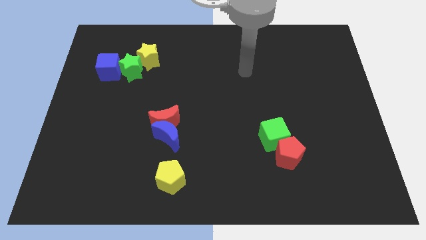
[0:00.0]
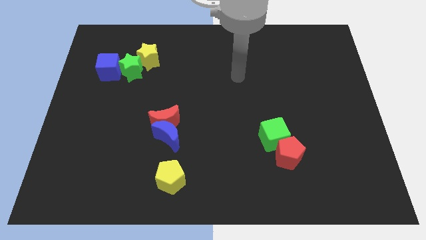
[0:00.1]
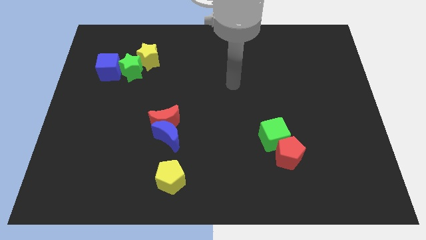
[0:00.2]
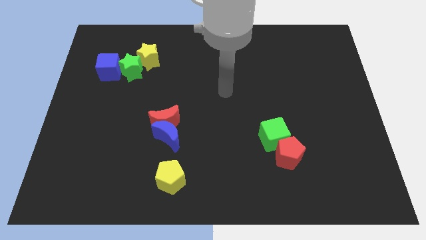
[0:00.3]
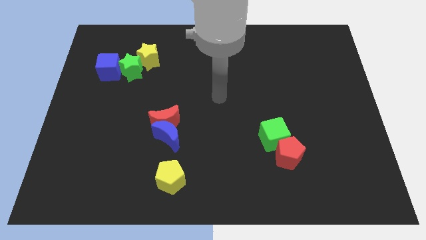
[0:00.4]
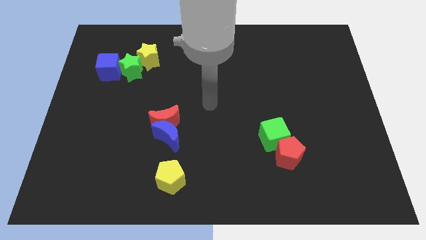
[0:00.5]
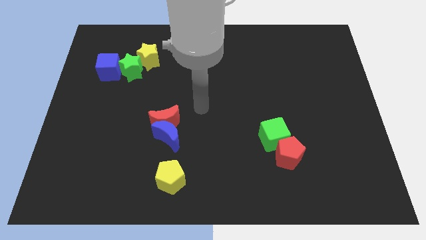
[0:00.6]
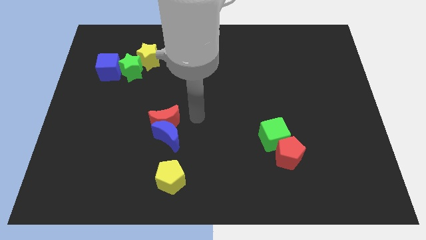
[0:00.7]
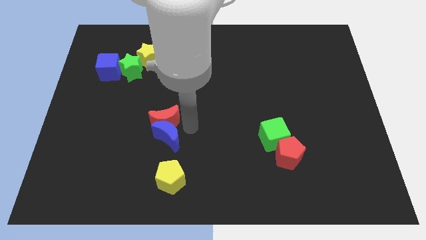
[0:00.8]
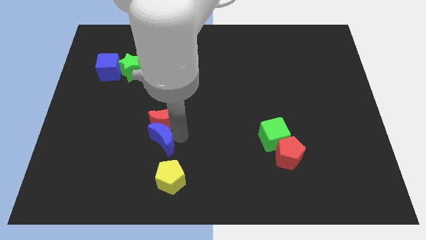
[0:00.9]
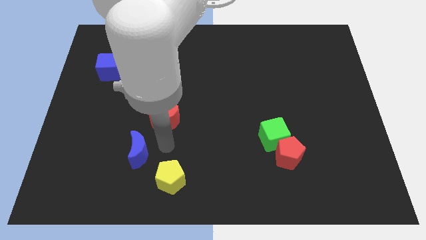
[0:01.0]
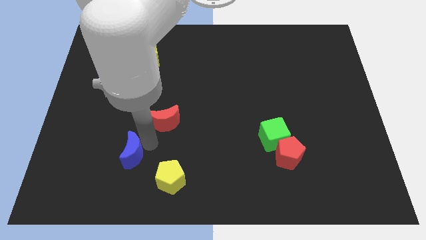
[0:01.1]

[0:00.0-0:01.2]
separate the red moon from the blue moon

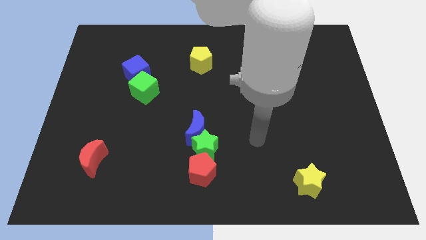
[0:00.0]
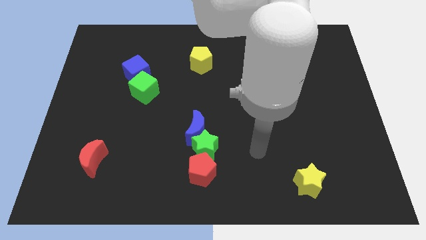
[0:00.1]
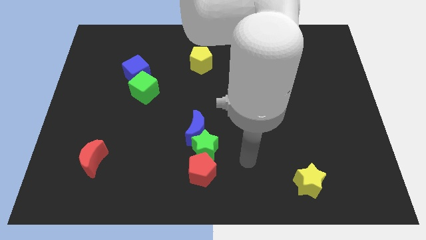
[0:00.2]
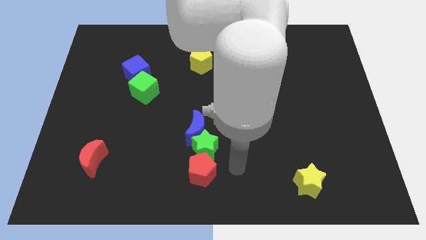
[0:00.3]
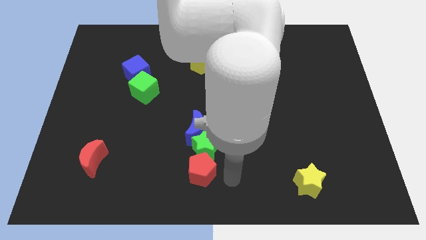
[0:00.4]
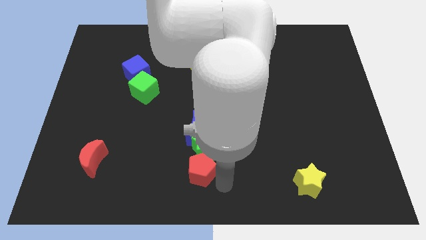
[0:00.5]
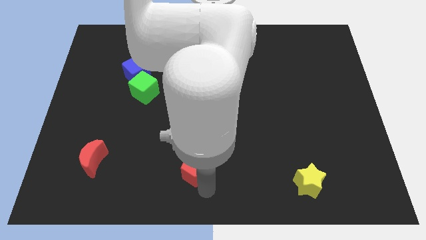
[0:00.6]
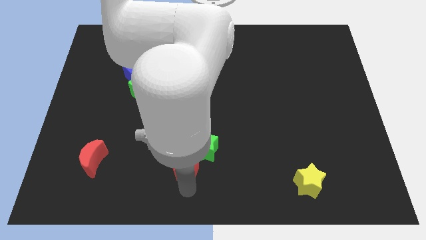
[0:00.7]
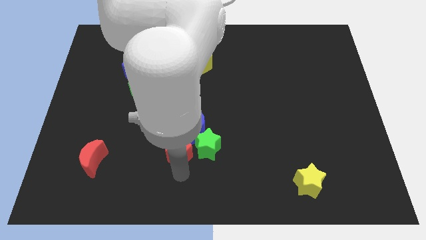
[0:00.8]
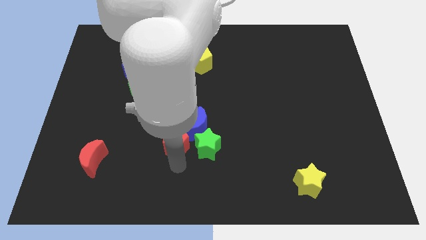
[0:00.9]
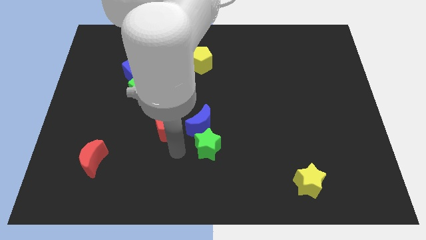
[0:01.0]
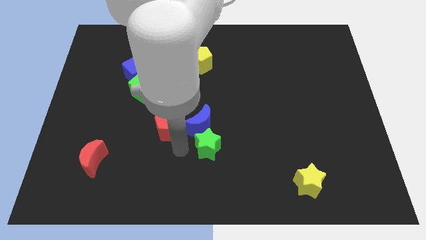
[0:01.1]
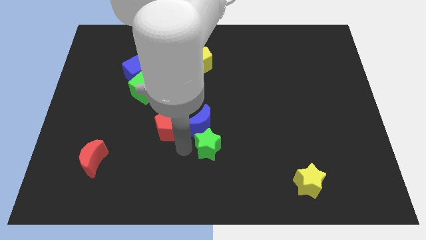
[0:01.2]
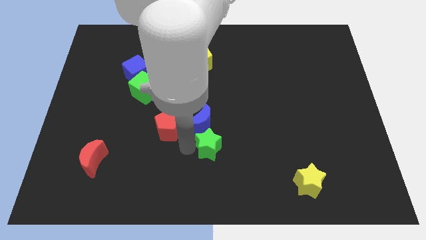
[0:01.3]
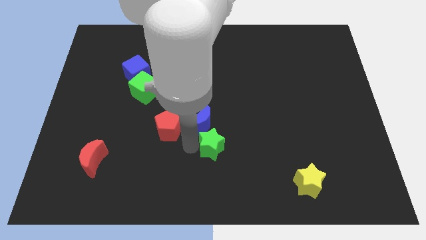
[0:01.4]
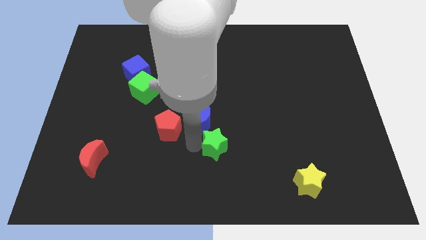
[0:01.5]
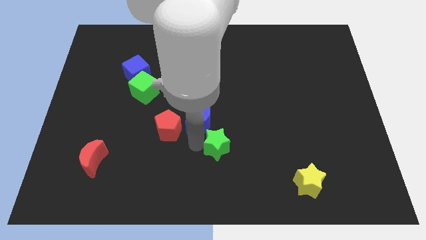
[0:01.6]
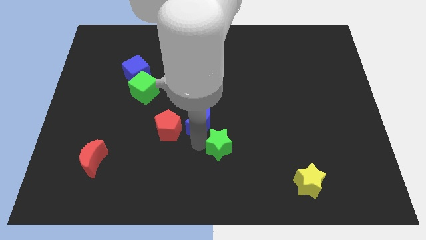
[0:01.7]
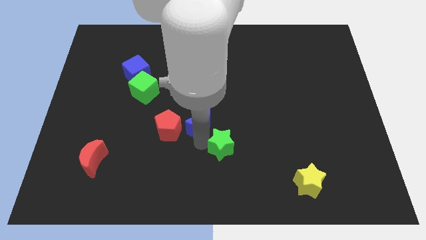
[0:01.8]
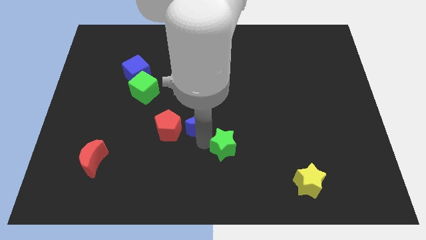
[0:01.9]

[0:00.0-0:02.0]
pull the green star apart from the blue moon and red pentagon

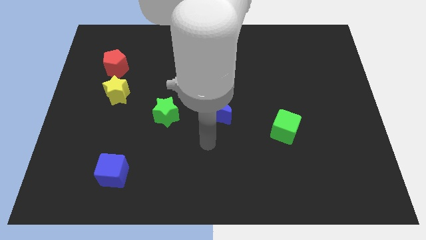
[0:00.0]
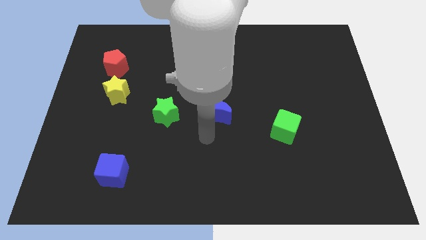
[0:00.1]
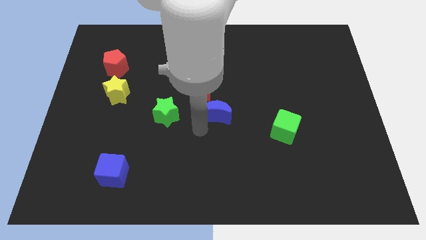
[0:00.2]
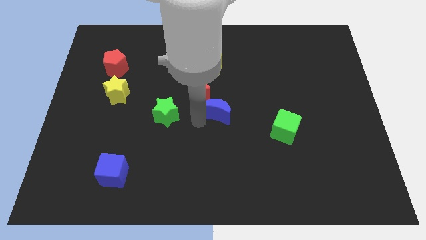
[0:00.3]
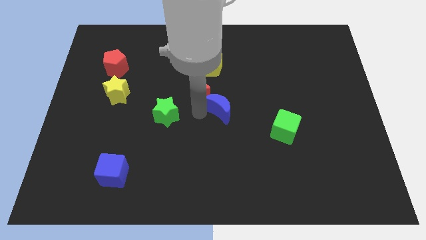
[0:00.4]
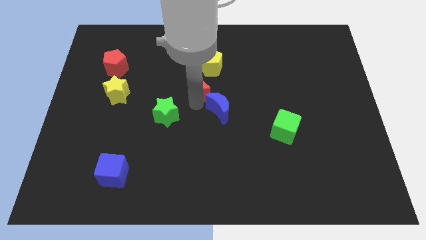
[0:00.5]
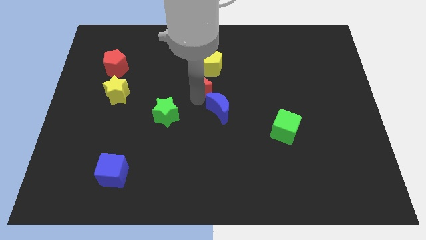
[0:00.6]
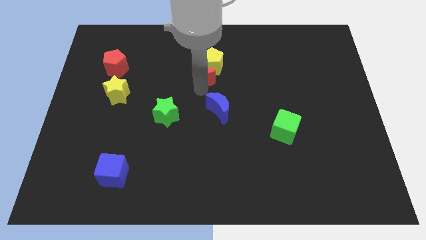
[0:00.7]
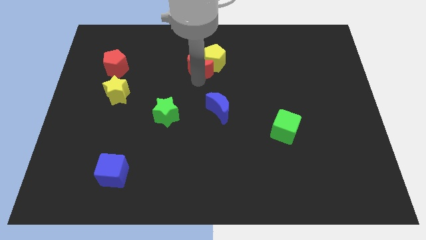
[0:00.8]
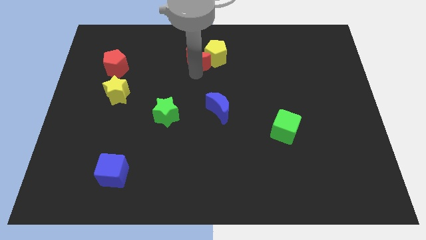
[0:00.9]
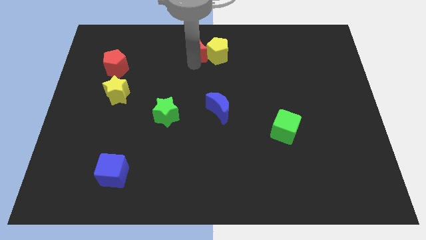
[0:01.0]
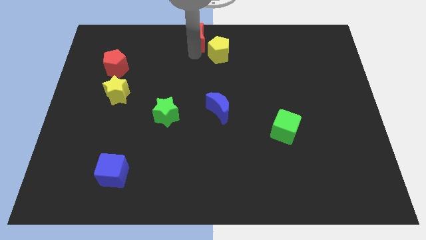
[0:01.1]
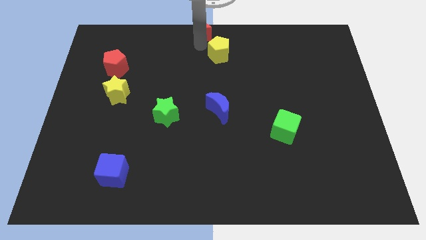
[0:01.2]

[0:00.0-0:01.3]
separate the yellow pentagon from the red moon

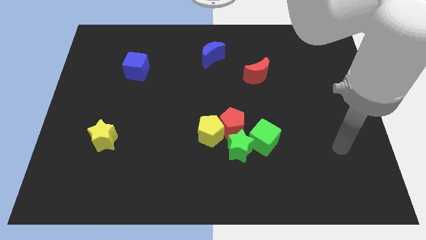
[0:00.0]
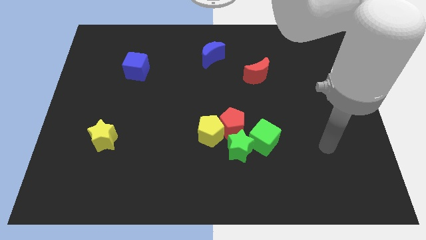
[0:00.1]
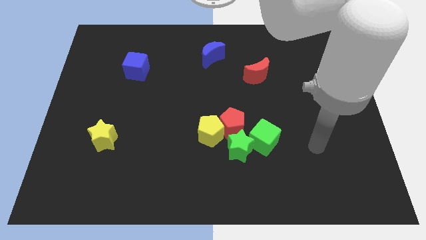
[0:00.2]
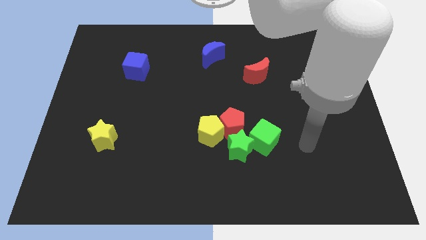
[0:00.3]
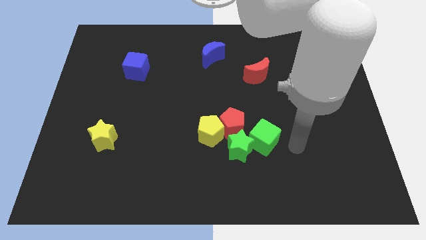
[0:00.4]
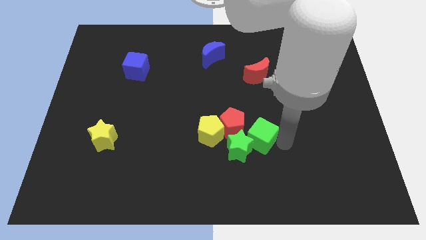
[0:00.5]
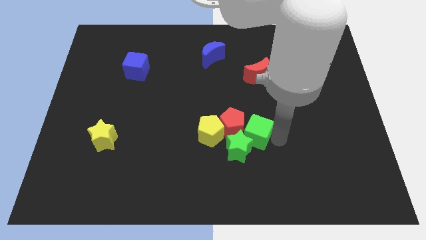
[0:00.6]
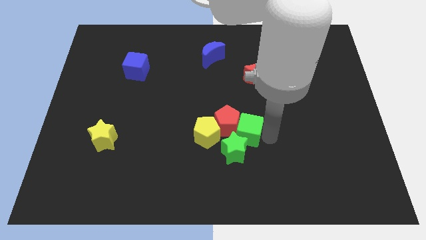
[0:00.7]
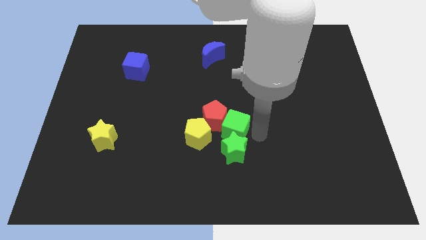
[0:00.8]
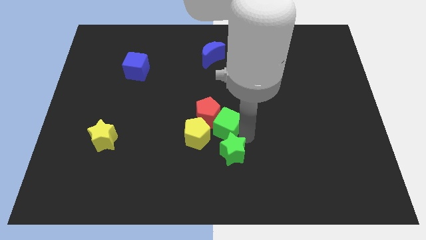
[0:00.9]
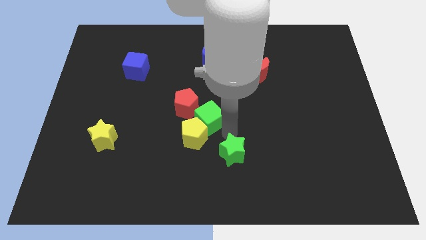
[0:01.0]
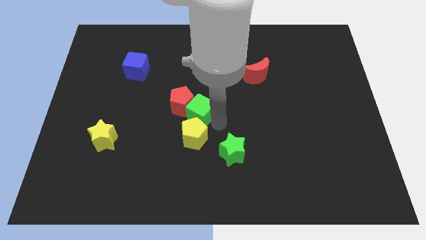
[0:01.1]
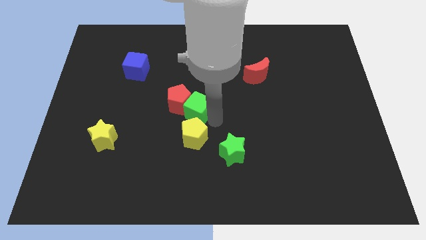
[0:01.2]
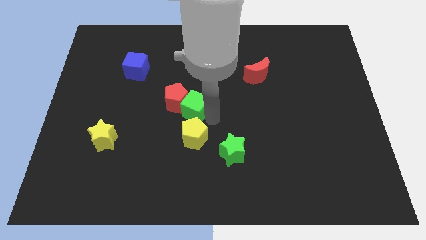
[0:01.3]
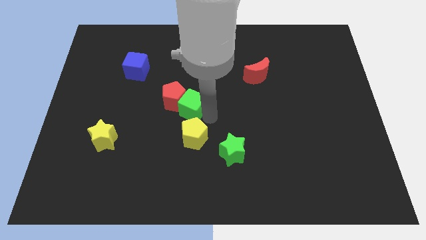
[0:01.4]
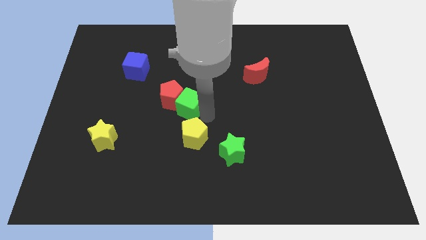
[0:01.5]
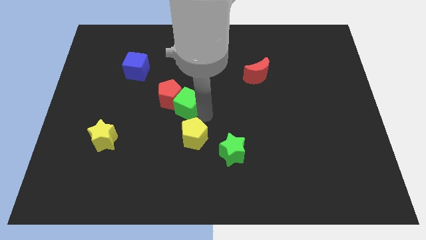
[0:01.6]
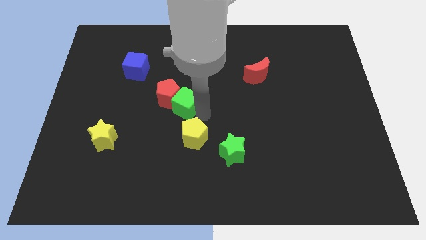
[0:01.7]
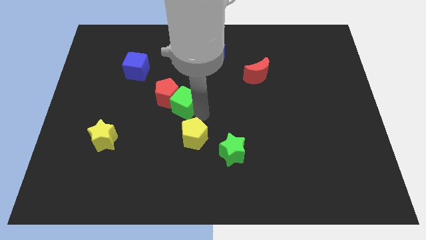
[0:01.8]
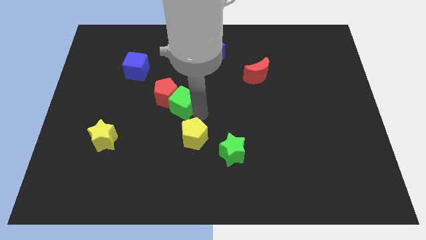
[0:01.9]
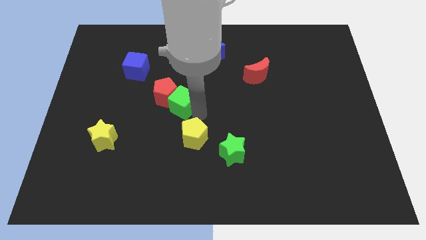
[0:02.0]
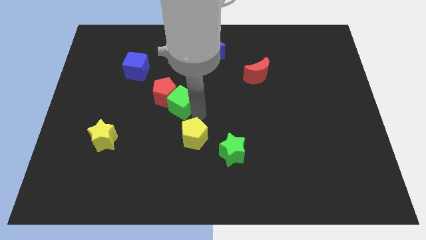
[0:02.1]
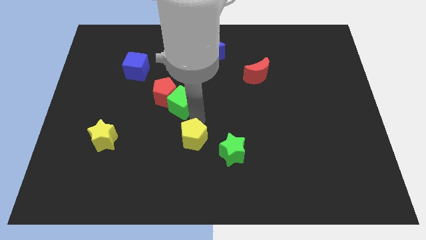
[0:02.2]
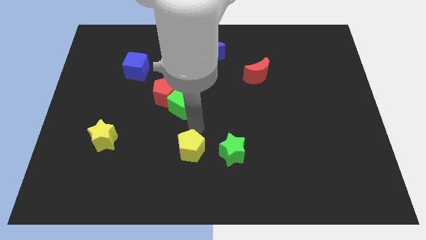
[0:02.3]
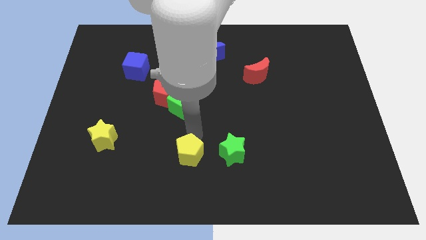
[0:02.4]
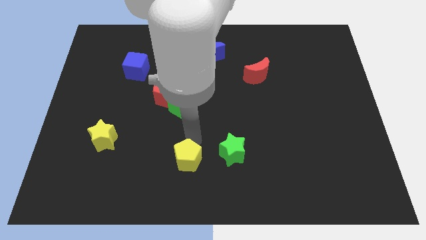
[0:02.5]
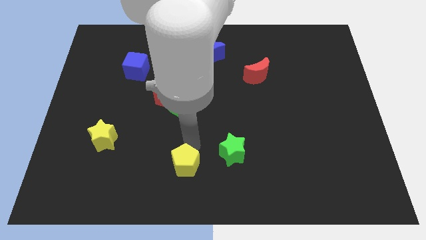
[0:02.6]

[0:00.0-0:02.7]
move the yellow pentagon away from the red pentagon and green star

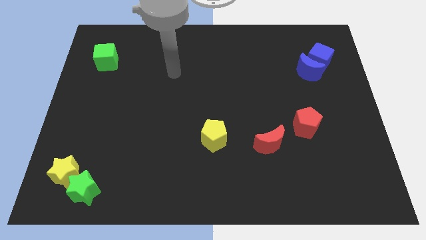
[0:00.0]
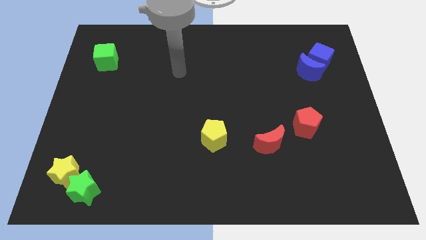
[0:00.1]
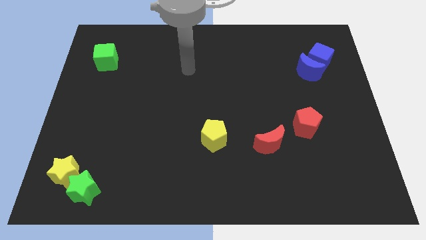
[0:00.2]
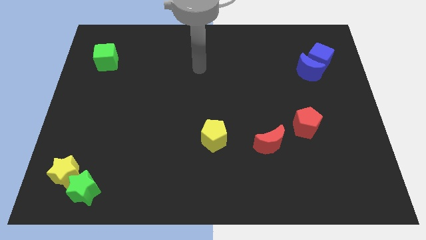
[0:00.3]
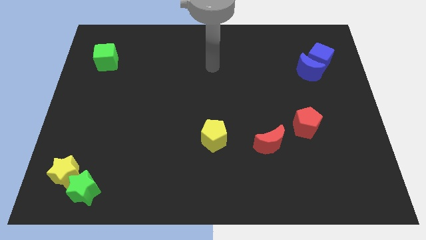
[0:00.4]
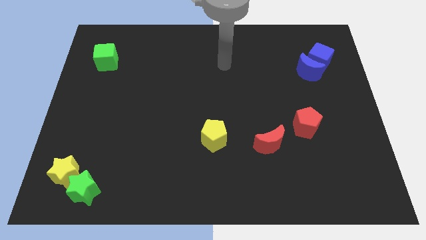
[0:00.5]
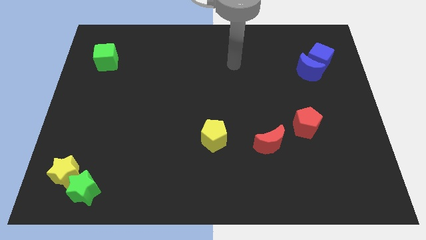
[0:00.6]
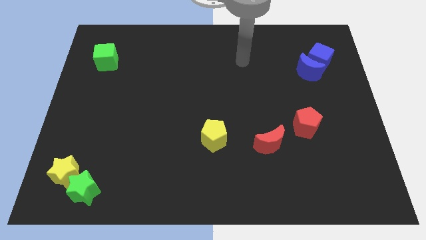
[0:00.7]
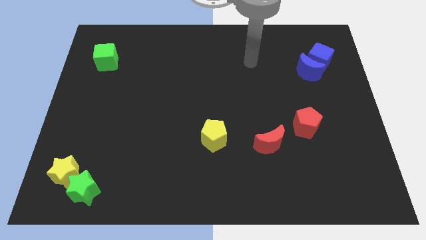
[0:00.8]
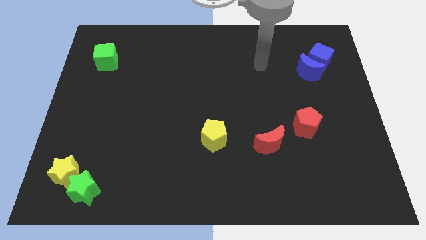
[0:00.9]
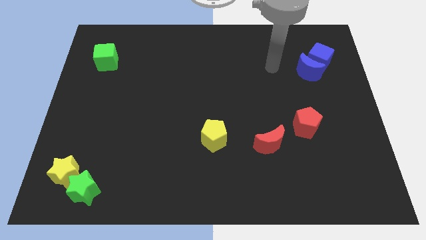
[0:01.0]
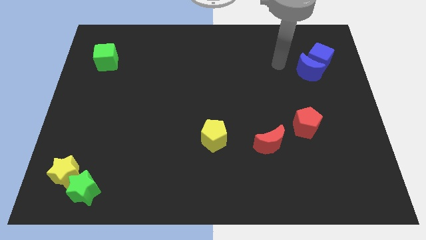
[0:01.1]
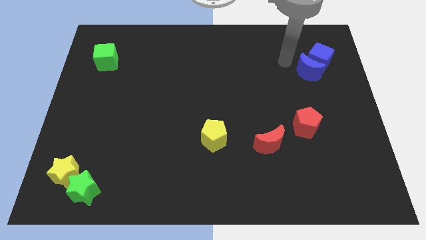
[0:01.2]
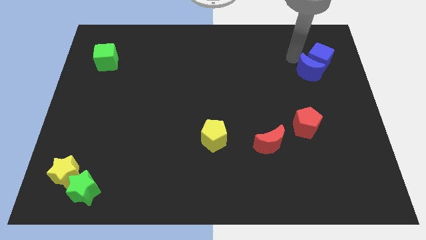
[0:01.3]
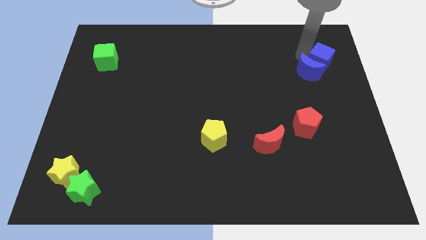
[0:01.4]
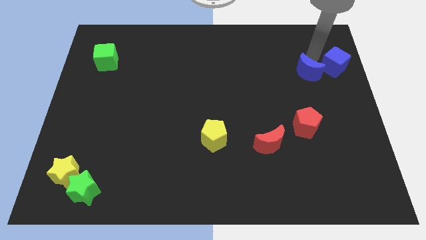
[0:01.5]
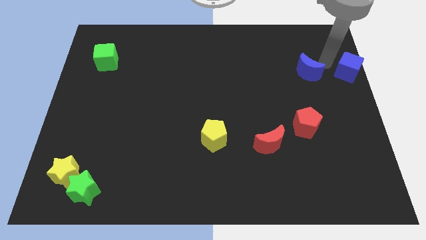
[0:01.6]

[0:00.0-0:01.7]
separate the blue moon from the blue cube

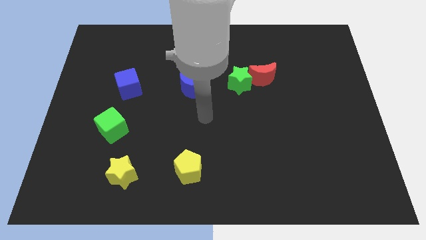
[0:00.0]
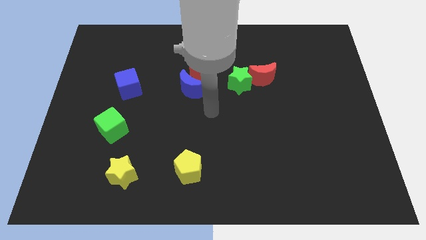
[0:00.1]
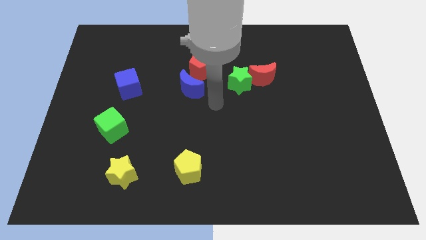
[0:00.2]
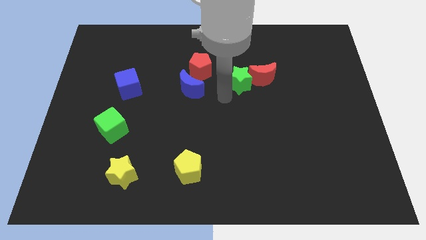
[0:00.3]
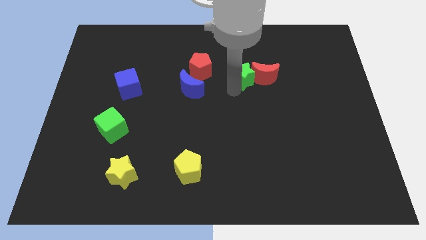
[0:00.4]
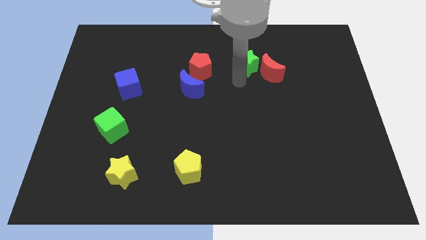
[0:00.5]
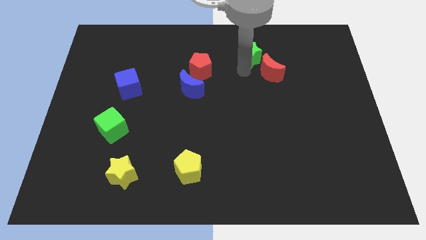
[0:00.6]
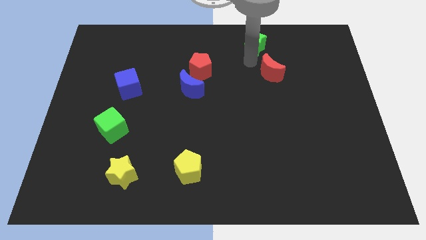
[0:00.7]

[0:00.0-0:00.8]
separate the red moon from the green star
